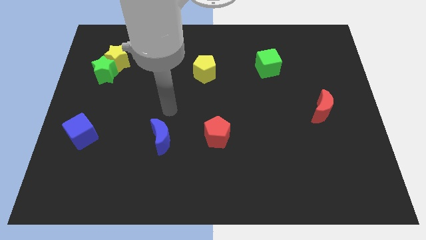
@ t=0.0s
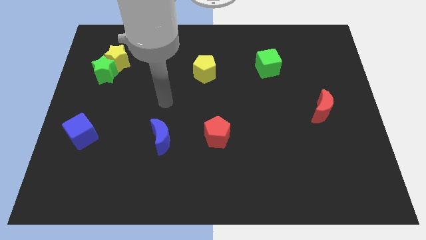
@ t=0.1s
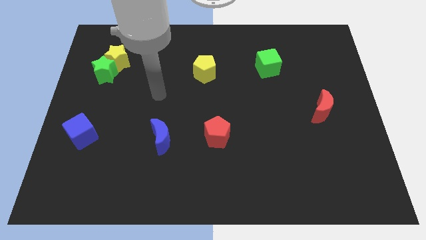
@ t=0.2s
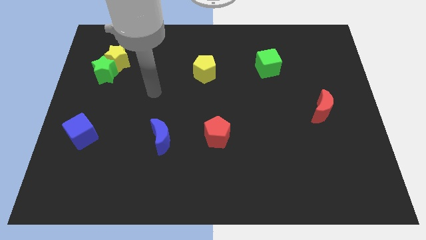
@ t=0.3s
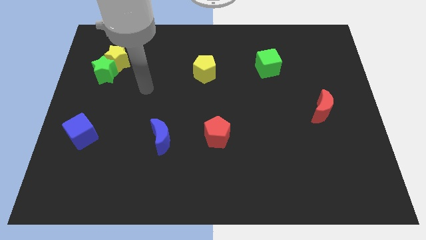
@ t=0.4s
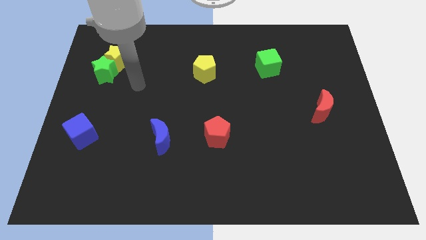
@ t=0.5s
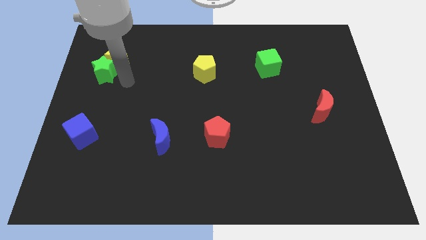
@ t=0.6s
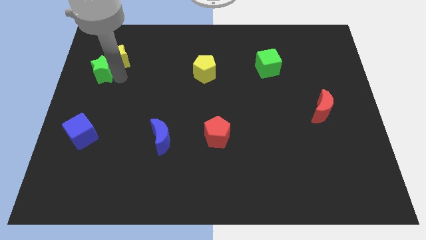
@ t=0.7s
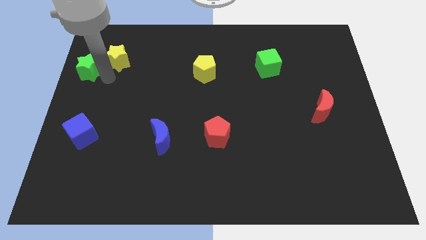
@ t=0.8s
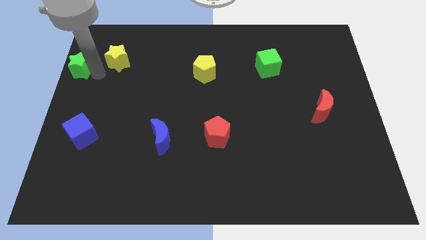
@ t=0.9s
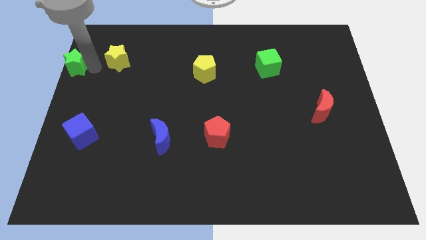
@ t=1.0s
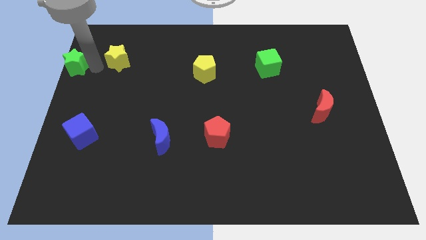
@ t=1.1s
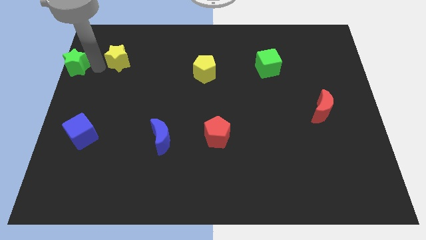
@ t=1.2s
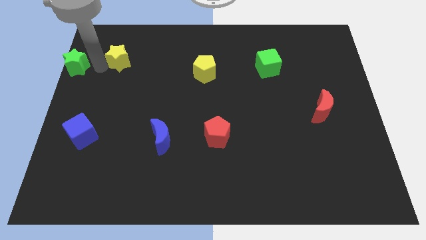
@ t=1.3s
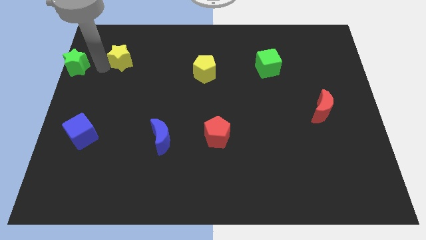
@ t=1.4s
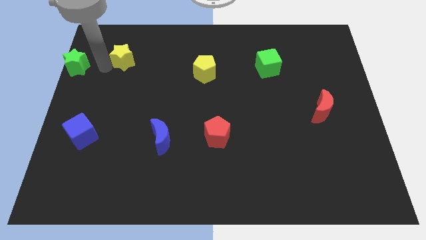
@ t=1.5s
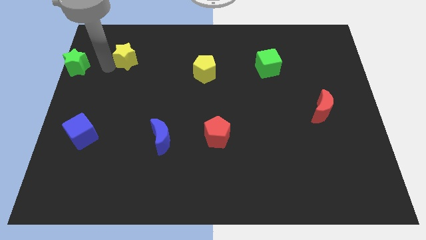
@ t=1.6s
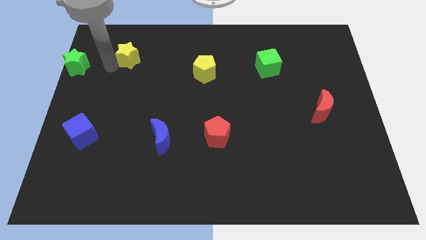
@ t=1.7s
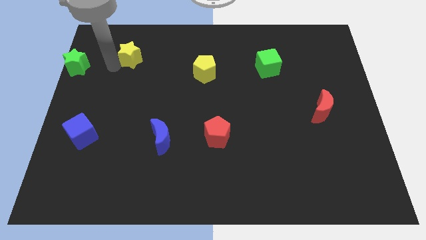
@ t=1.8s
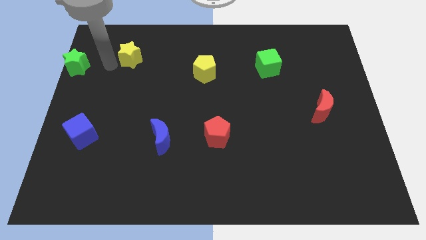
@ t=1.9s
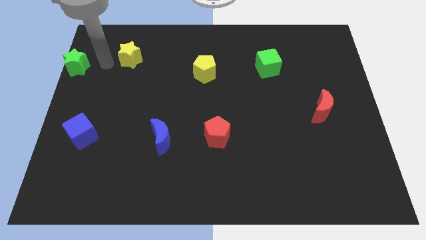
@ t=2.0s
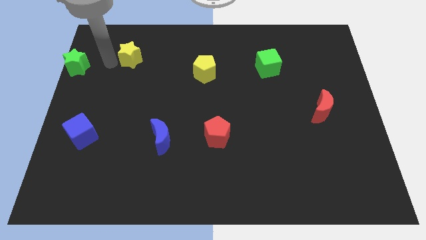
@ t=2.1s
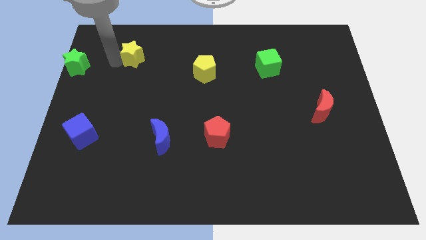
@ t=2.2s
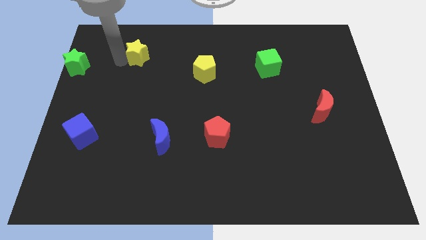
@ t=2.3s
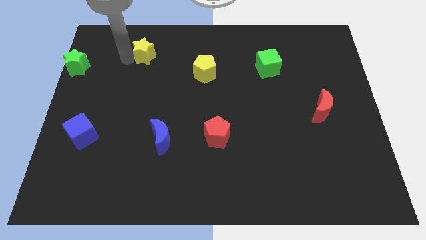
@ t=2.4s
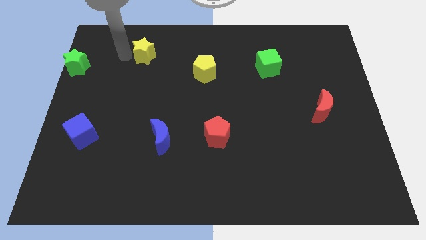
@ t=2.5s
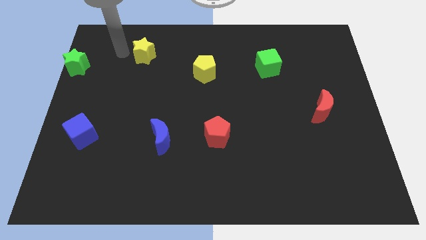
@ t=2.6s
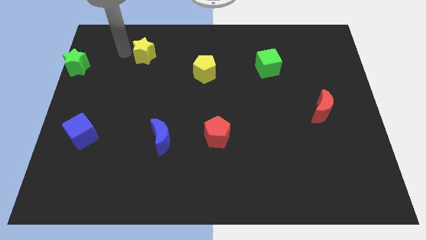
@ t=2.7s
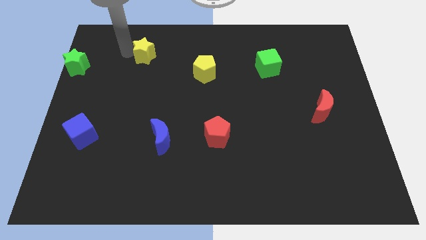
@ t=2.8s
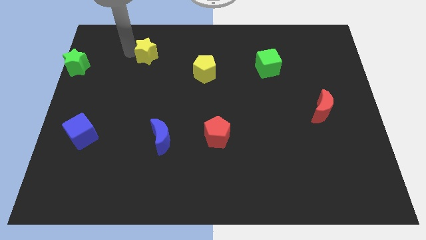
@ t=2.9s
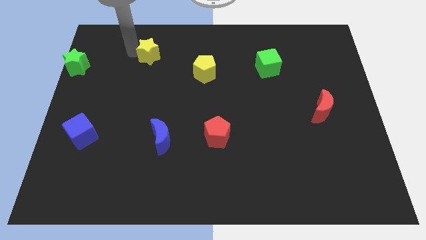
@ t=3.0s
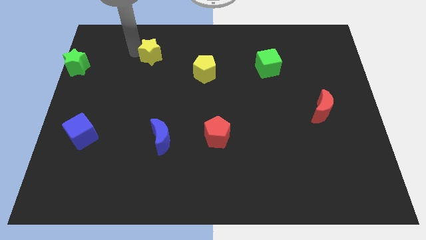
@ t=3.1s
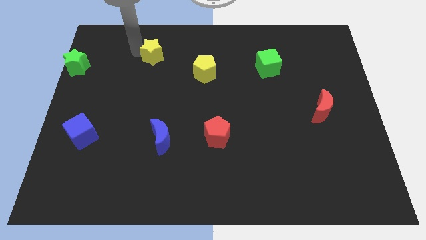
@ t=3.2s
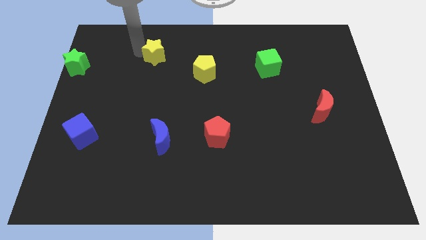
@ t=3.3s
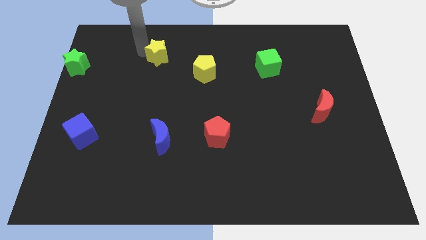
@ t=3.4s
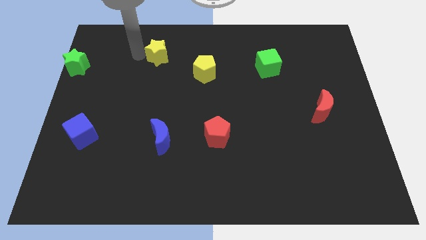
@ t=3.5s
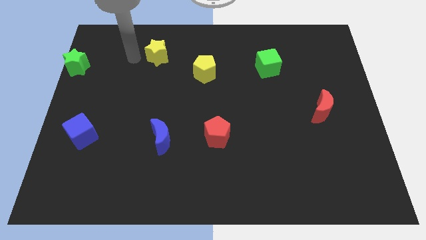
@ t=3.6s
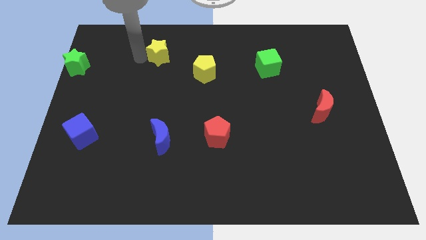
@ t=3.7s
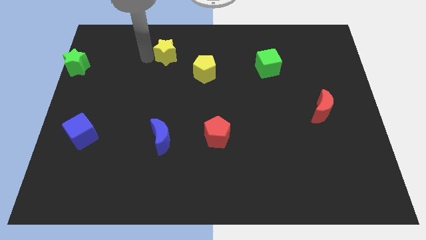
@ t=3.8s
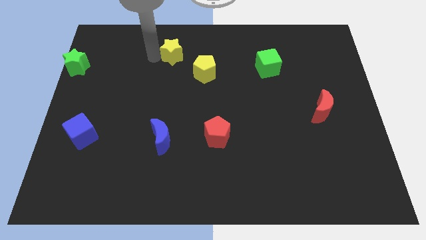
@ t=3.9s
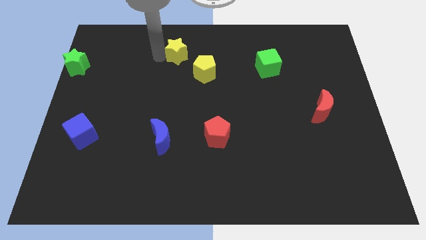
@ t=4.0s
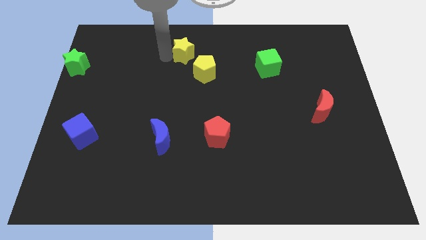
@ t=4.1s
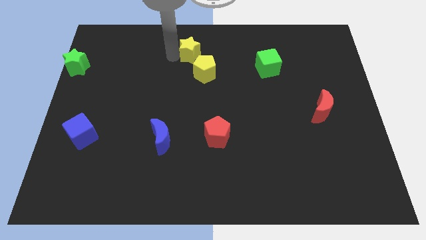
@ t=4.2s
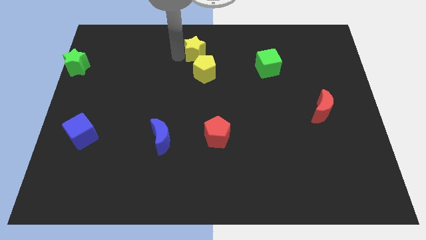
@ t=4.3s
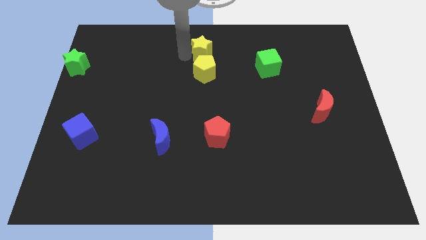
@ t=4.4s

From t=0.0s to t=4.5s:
slide the yellow star to the right

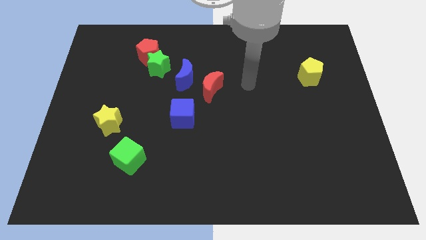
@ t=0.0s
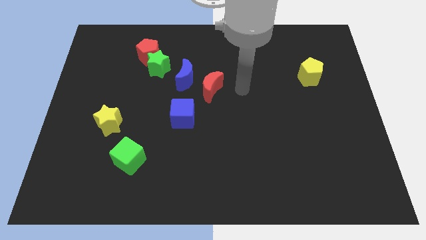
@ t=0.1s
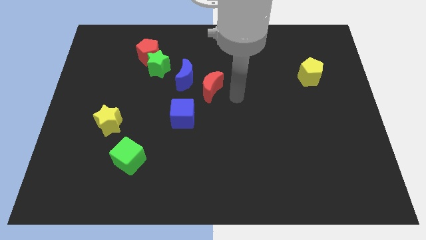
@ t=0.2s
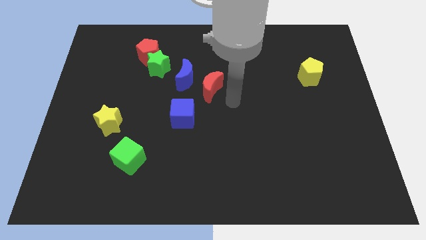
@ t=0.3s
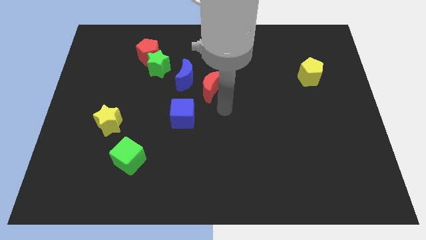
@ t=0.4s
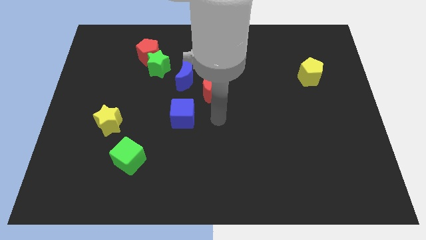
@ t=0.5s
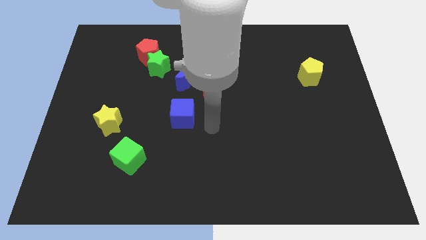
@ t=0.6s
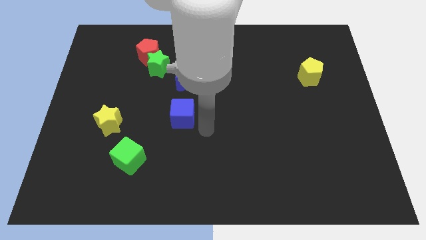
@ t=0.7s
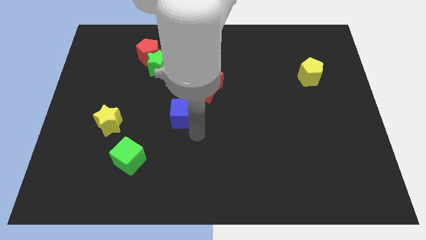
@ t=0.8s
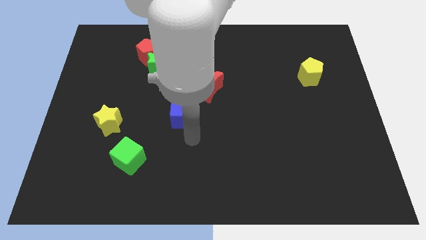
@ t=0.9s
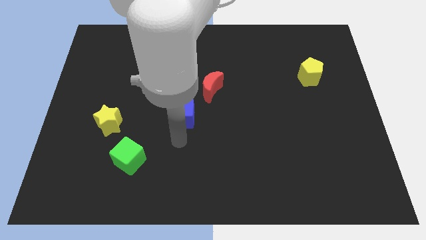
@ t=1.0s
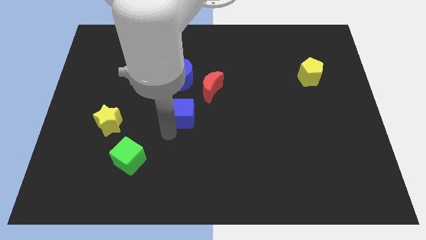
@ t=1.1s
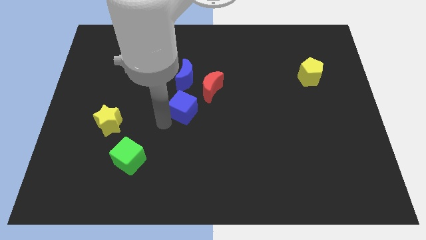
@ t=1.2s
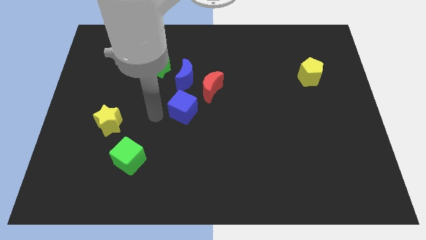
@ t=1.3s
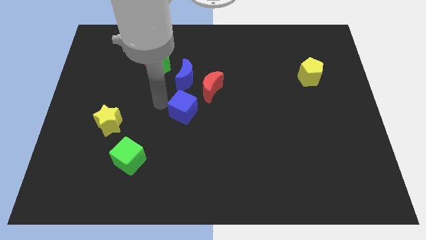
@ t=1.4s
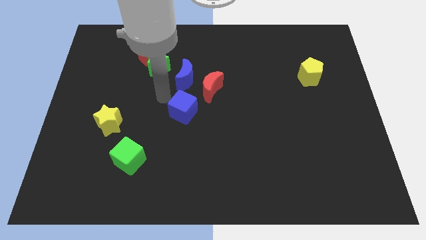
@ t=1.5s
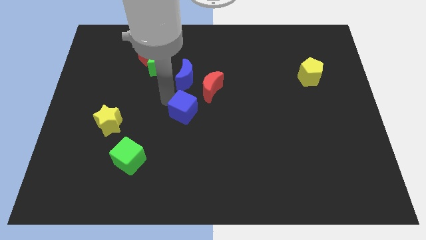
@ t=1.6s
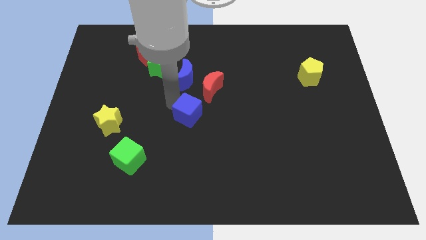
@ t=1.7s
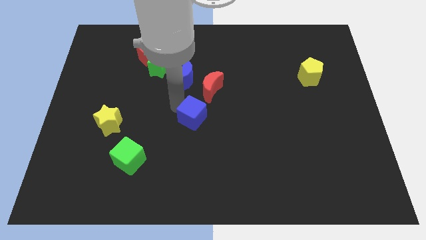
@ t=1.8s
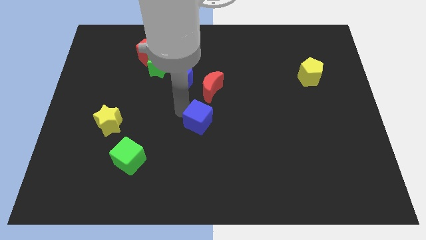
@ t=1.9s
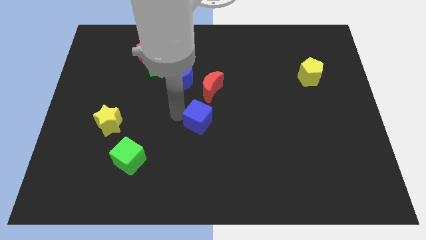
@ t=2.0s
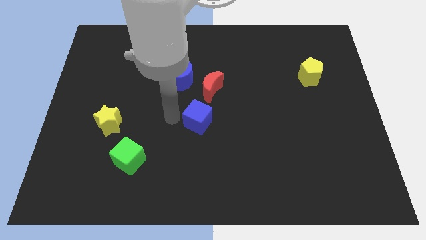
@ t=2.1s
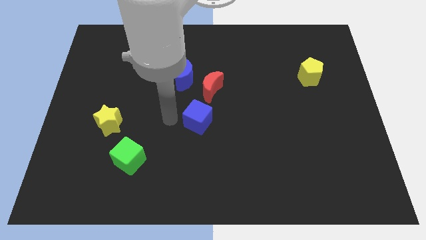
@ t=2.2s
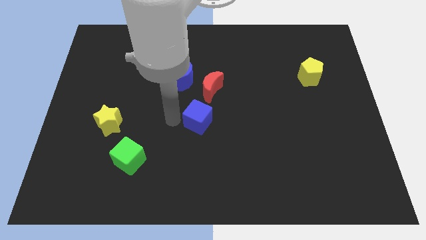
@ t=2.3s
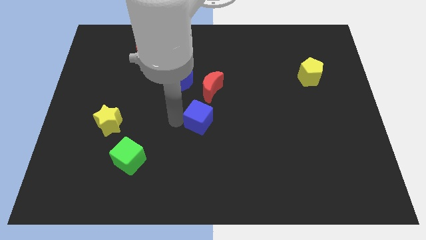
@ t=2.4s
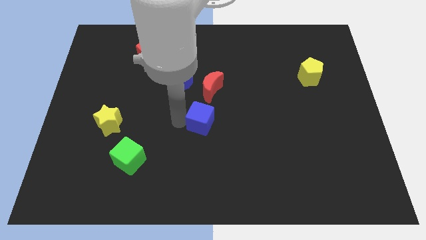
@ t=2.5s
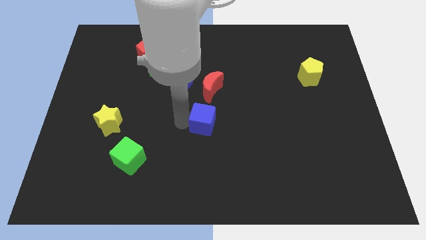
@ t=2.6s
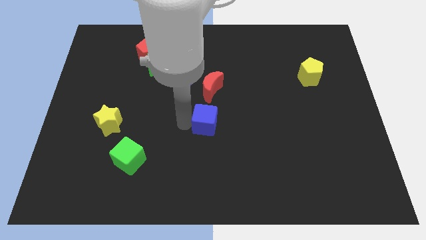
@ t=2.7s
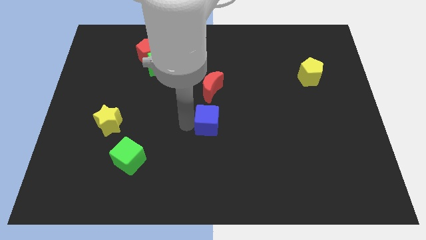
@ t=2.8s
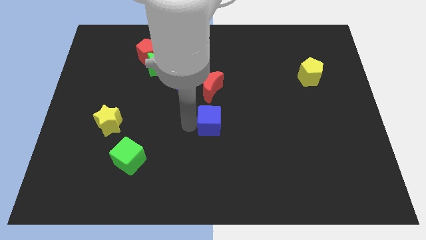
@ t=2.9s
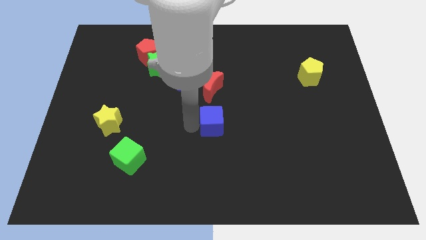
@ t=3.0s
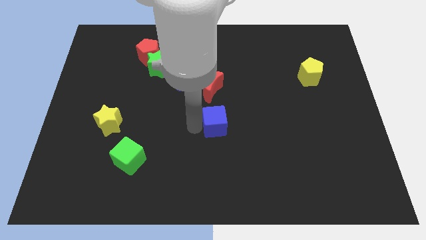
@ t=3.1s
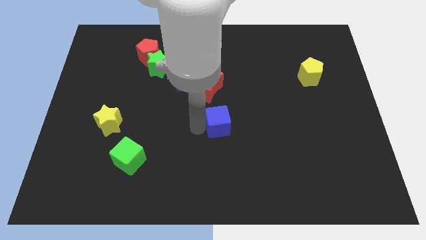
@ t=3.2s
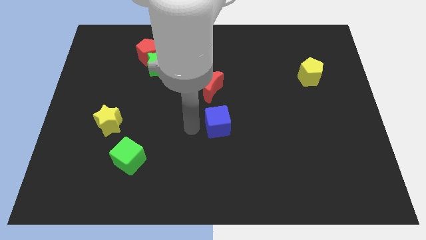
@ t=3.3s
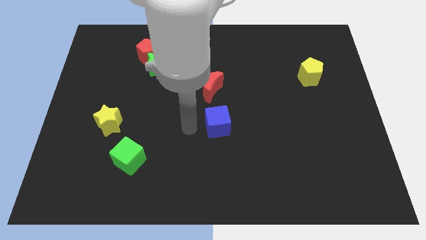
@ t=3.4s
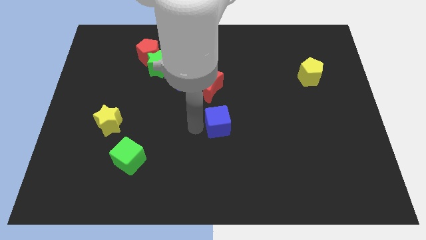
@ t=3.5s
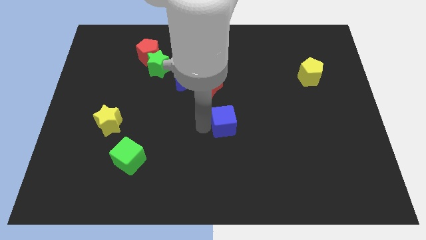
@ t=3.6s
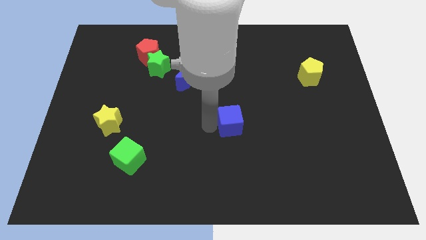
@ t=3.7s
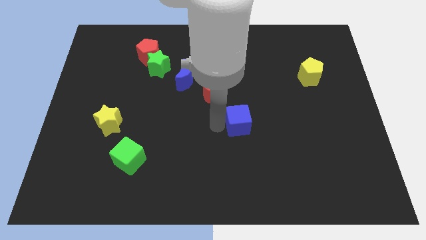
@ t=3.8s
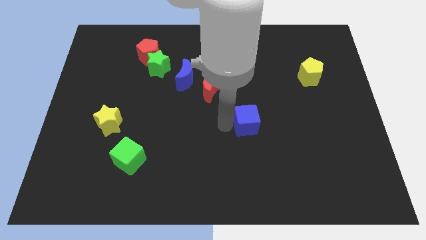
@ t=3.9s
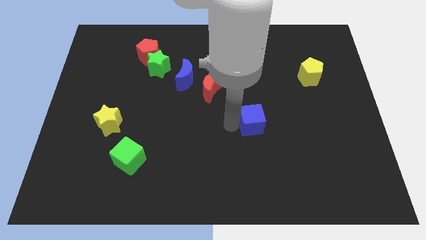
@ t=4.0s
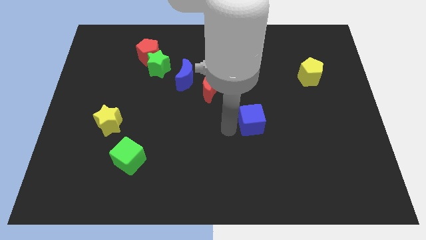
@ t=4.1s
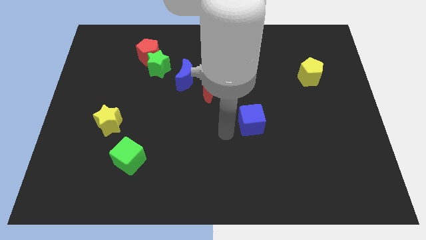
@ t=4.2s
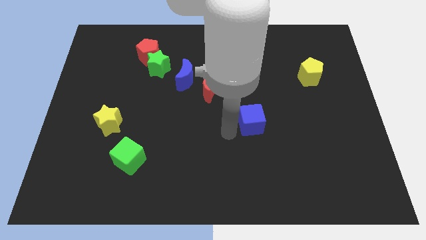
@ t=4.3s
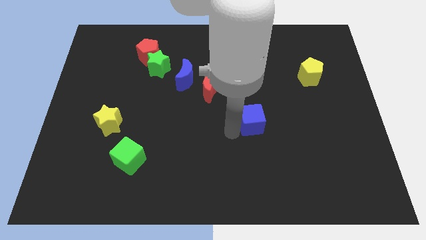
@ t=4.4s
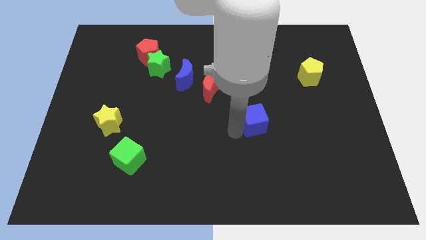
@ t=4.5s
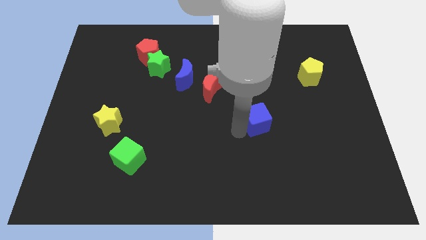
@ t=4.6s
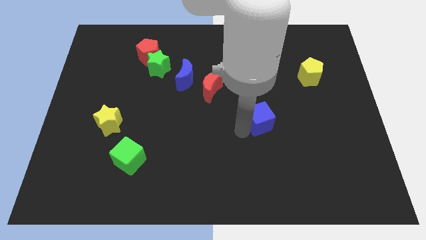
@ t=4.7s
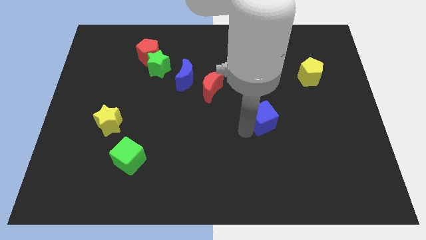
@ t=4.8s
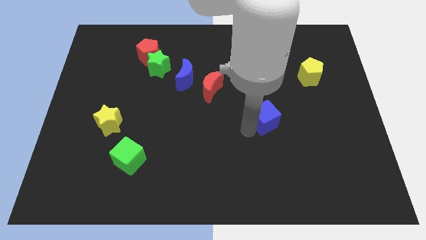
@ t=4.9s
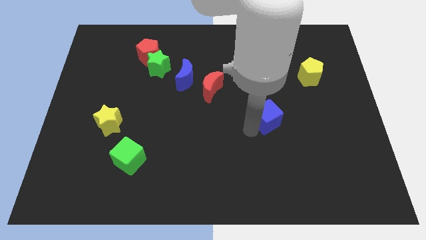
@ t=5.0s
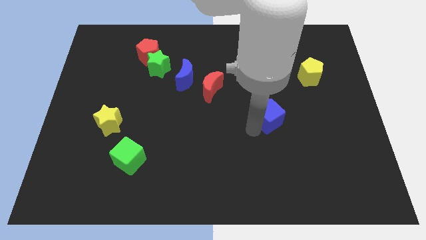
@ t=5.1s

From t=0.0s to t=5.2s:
push the blue cube right
